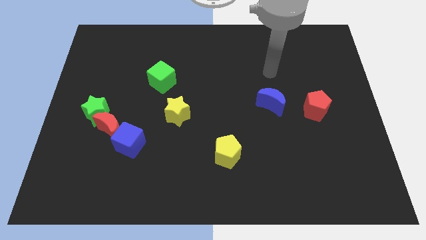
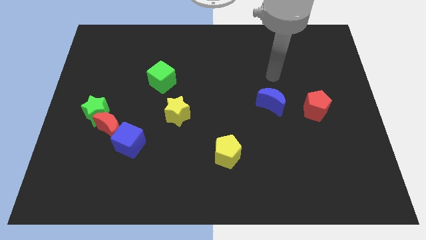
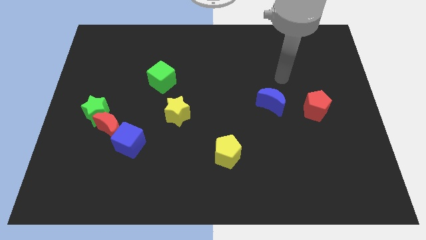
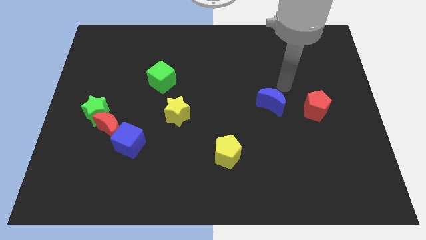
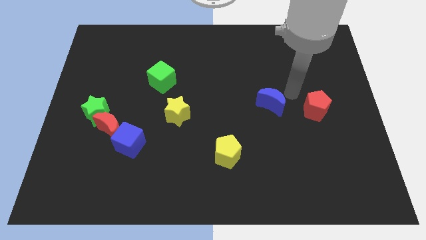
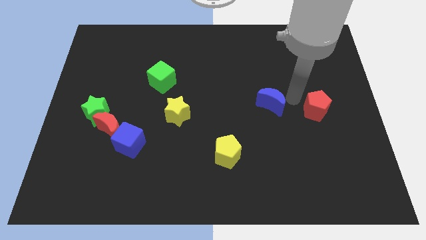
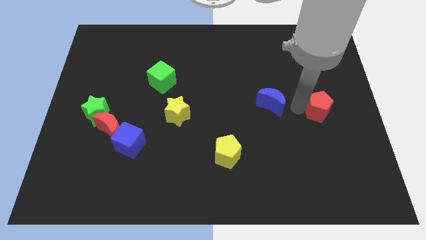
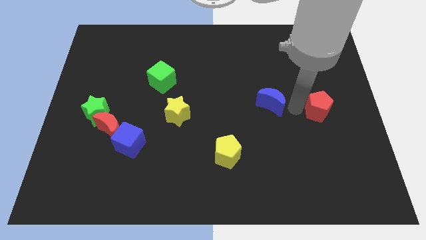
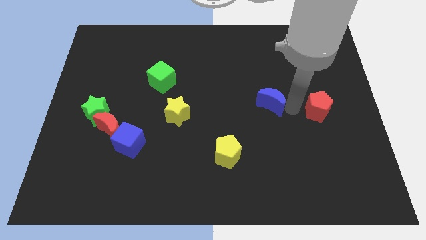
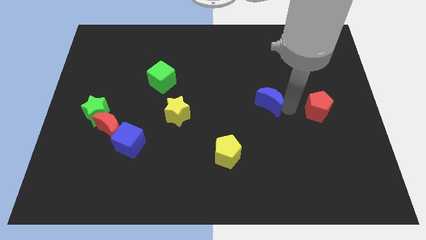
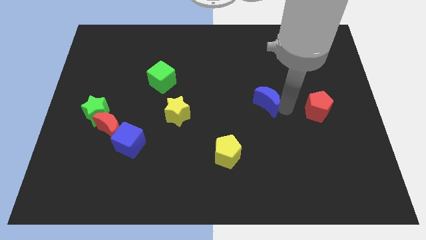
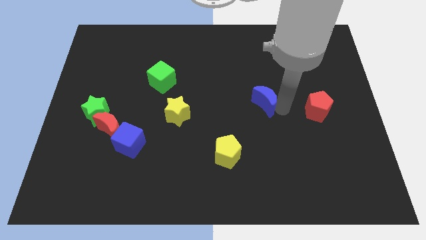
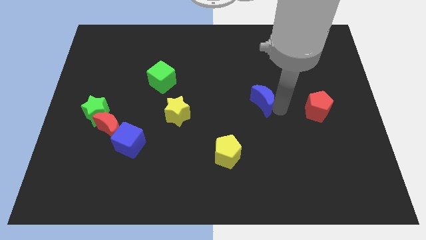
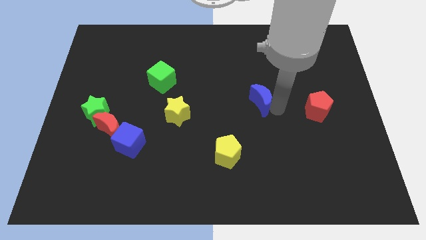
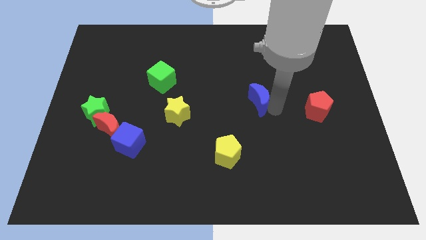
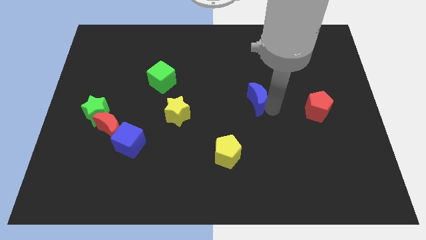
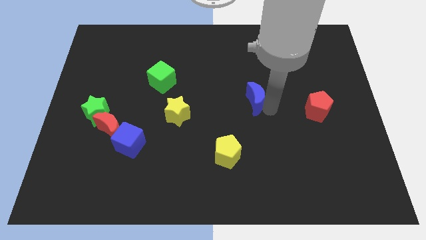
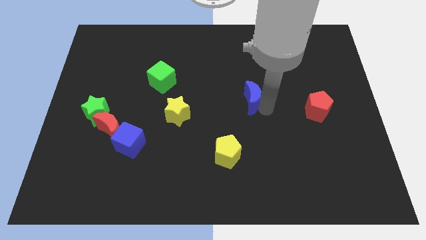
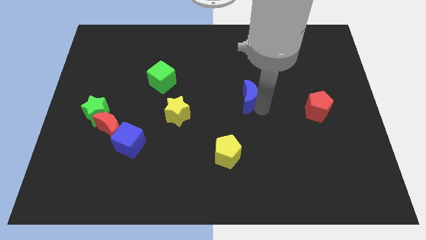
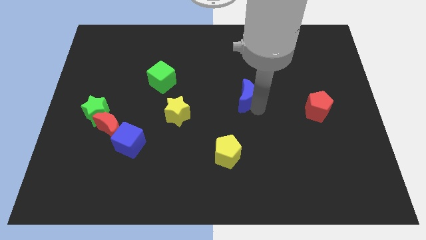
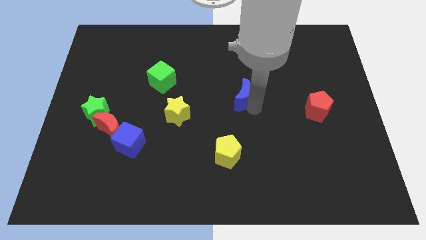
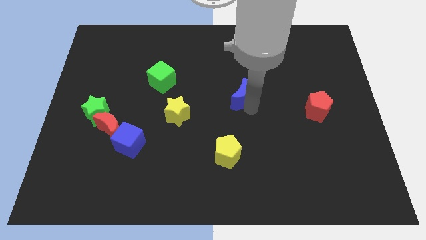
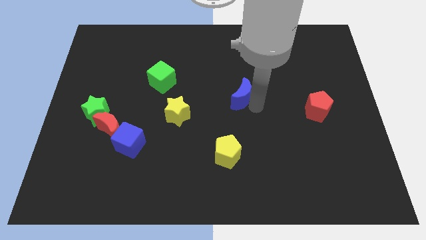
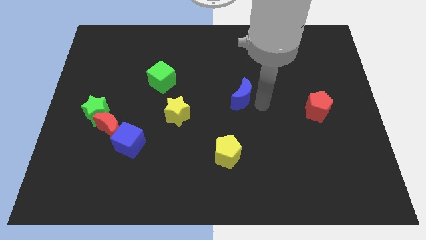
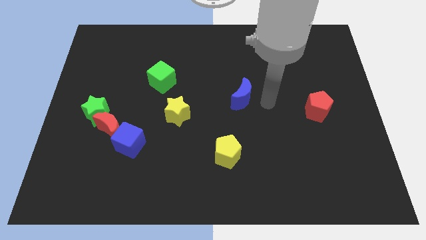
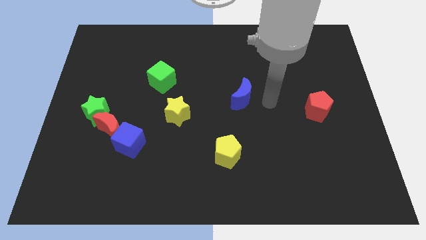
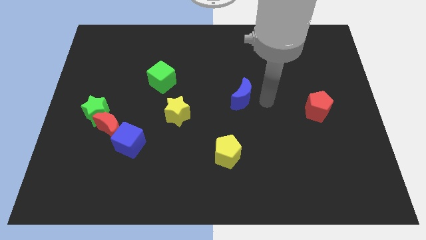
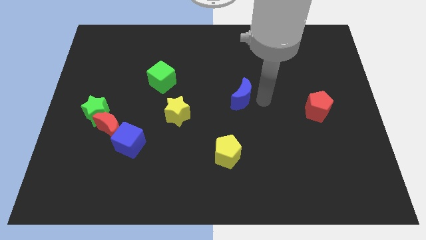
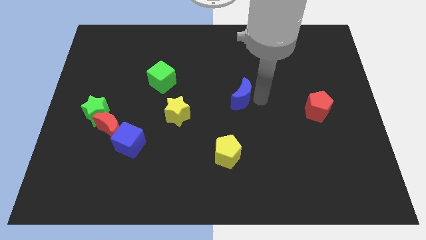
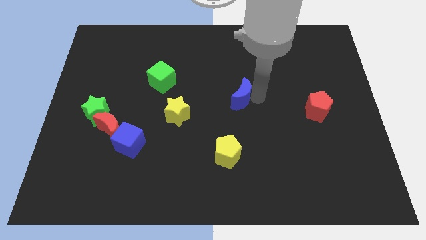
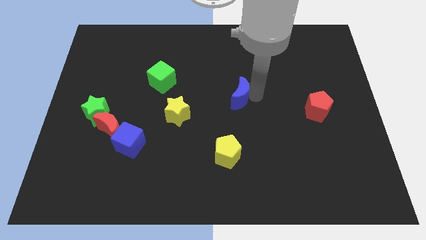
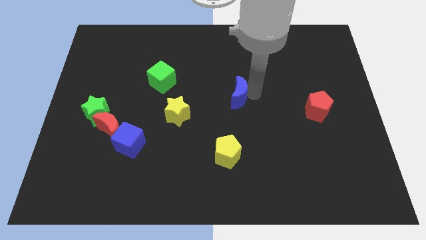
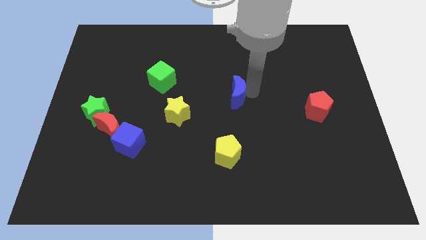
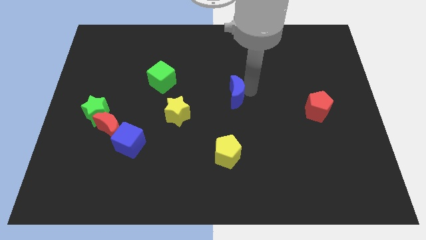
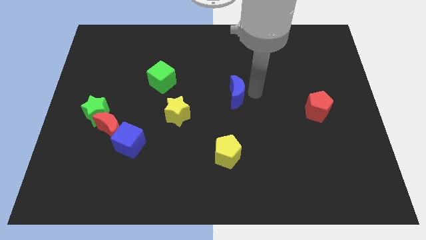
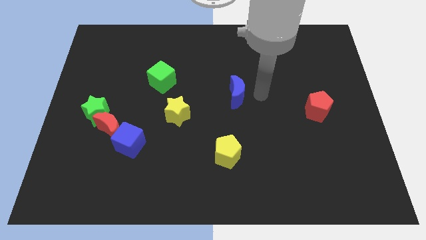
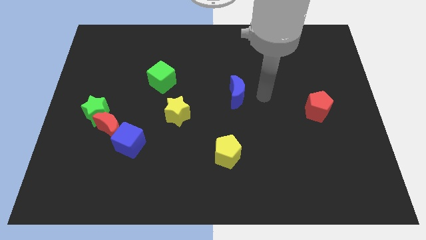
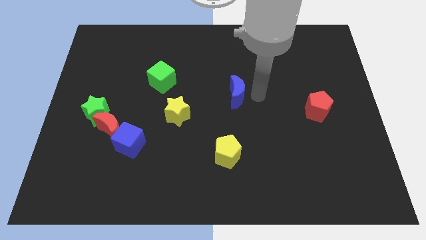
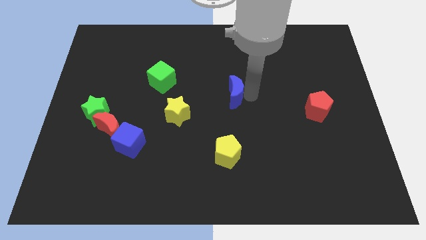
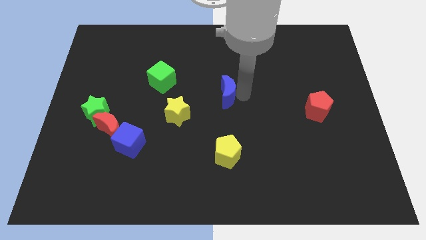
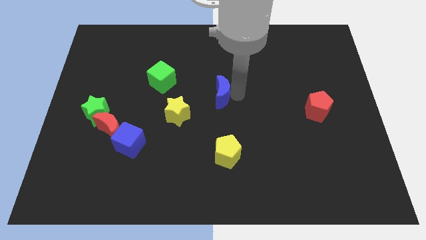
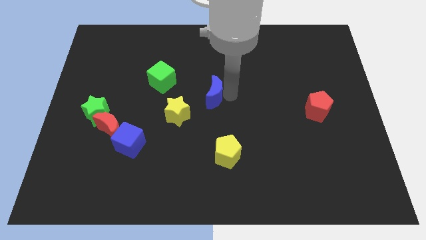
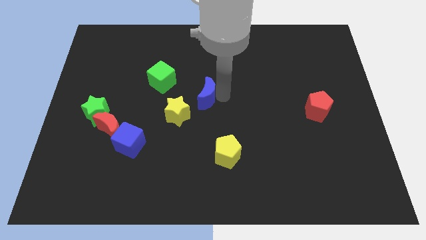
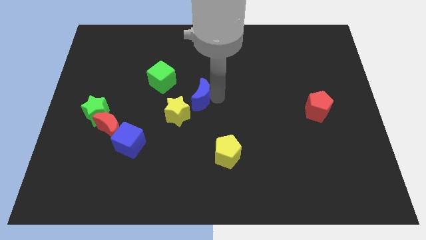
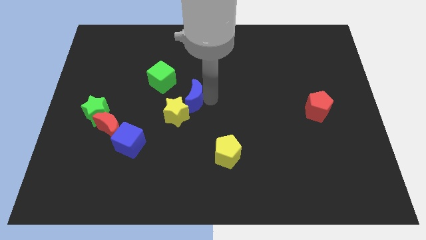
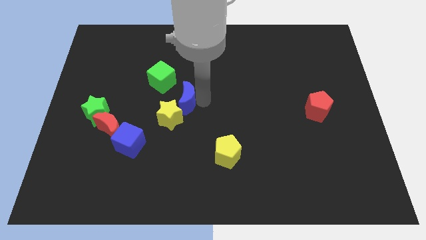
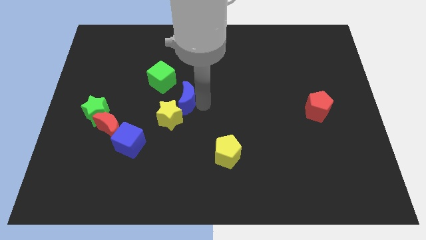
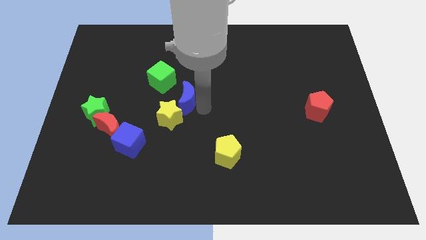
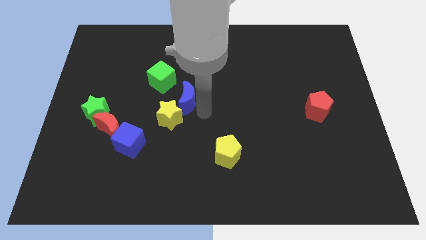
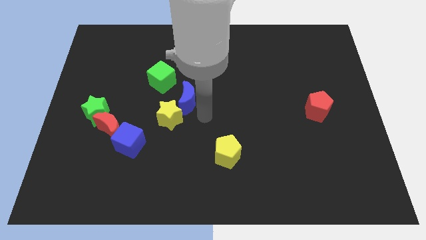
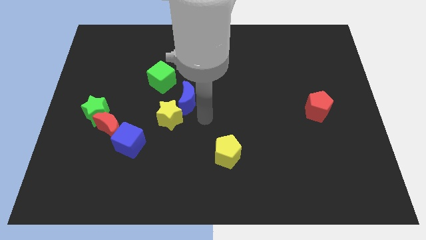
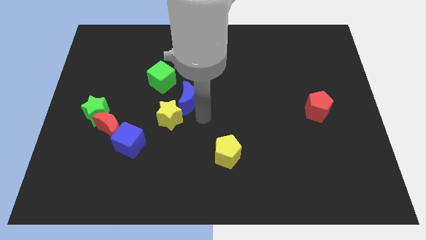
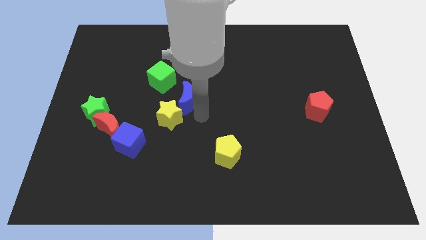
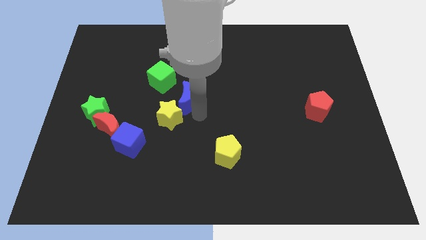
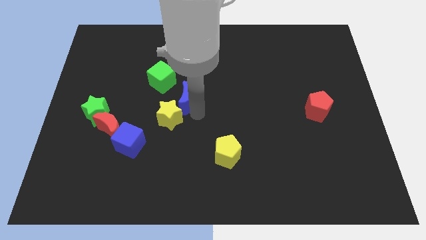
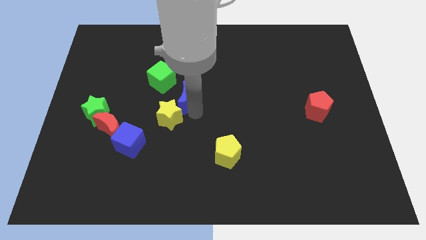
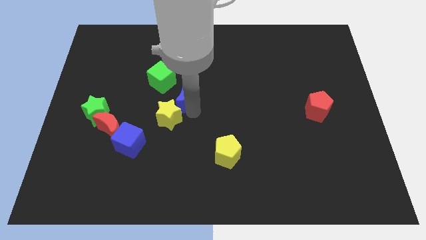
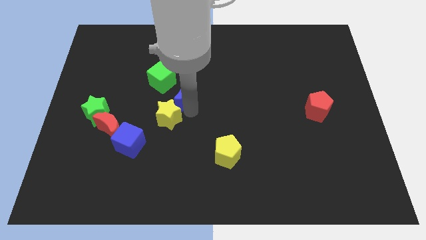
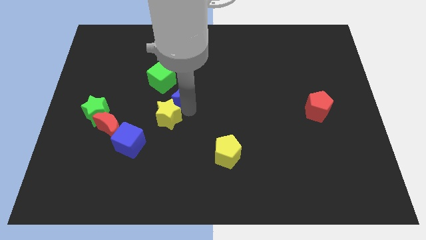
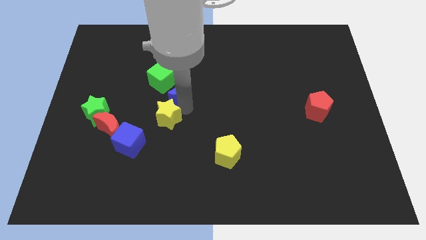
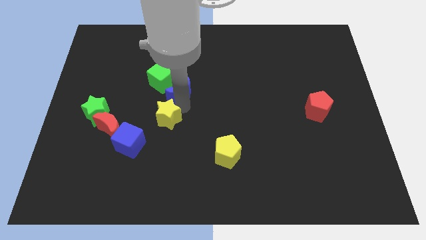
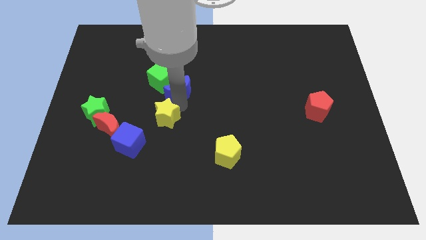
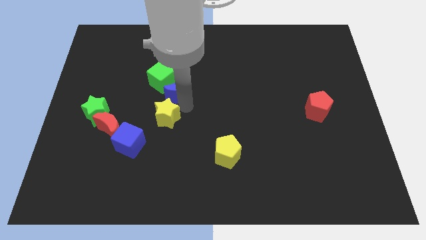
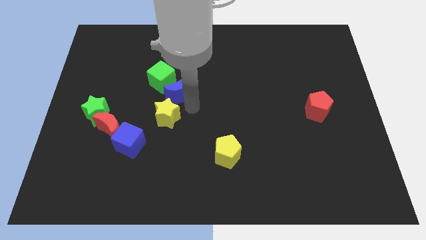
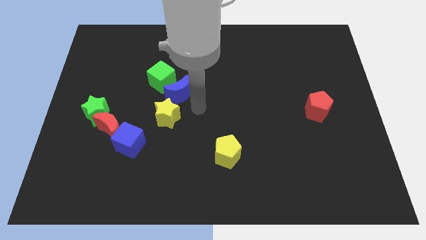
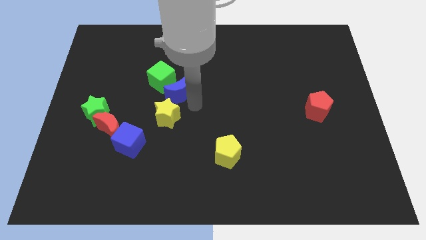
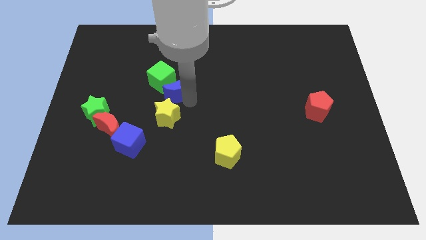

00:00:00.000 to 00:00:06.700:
push the blue moon towards the green cube
